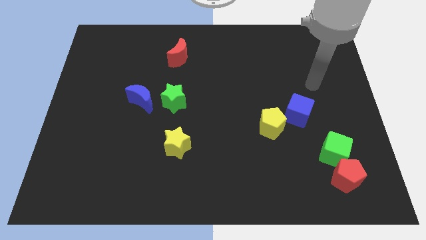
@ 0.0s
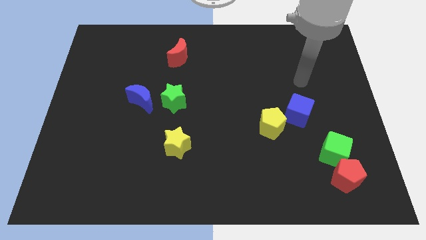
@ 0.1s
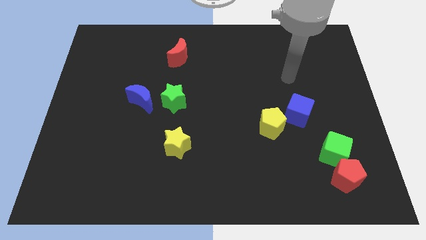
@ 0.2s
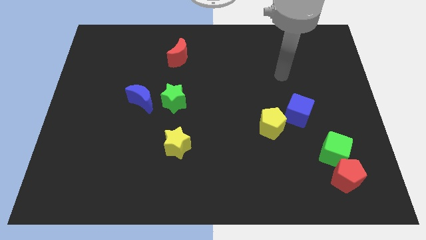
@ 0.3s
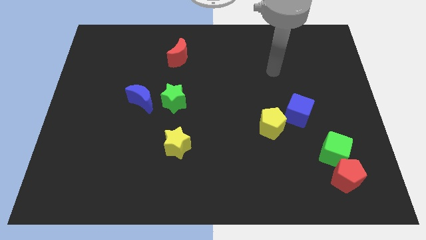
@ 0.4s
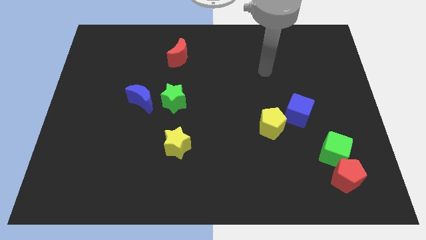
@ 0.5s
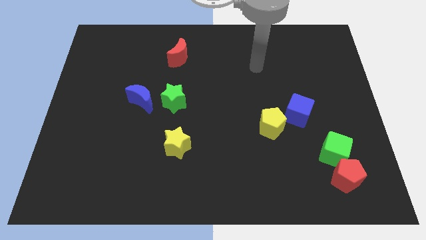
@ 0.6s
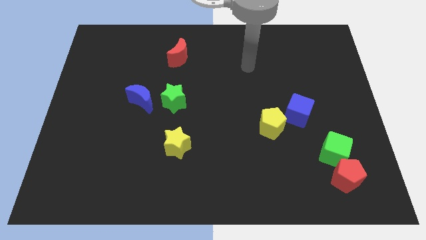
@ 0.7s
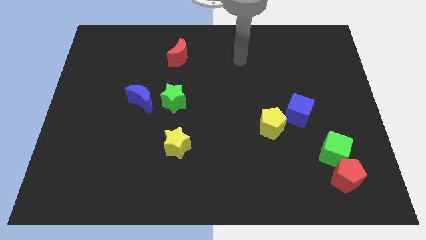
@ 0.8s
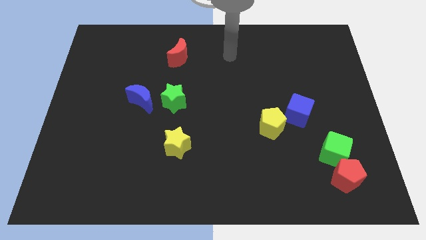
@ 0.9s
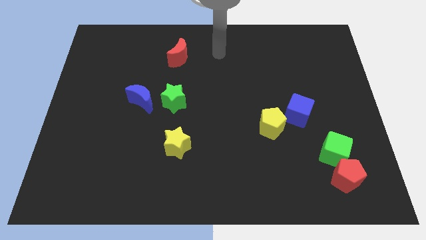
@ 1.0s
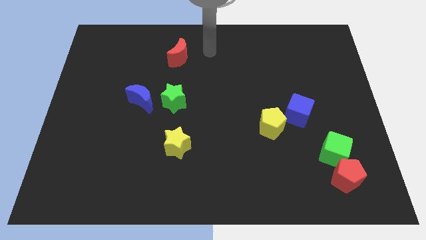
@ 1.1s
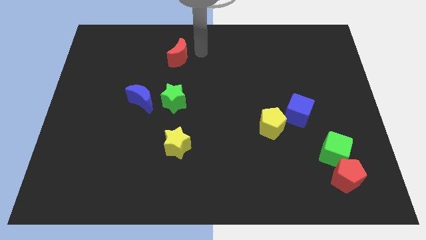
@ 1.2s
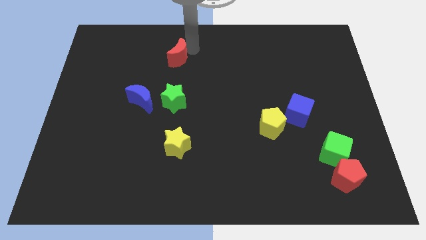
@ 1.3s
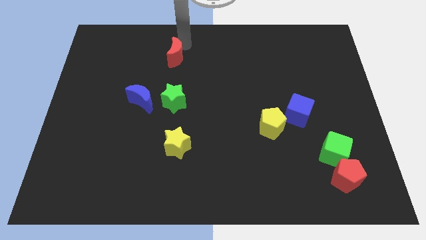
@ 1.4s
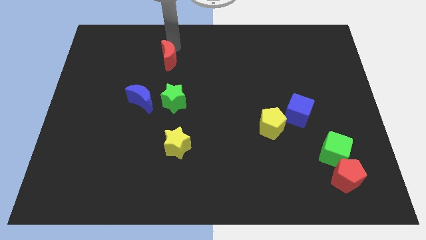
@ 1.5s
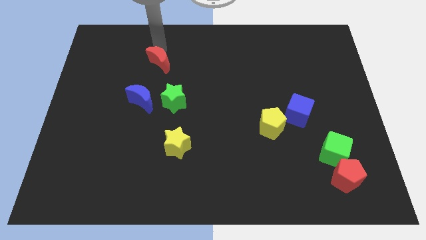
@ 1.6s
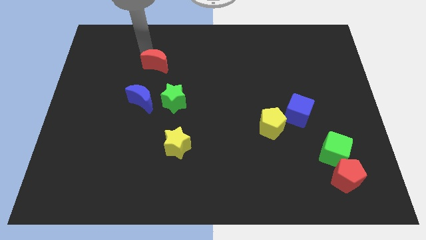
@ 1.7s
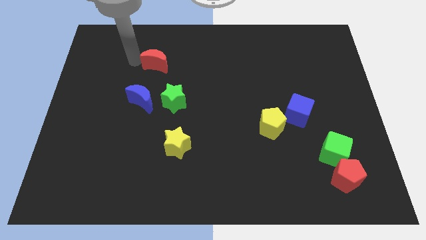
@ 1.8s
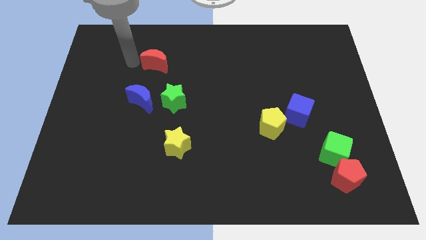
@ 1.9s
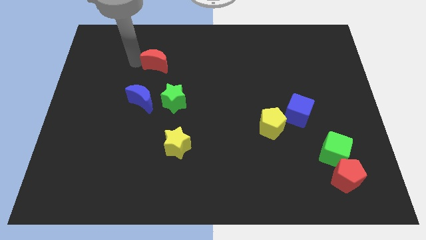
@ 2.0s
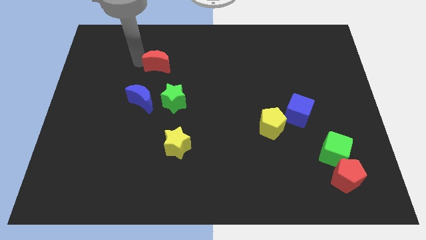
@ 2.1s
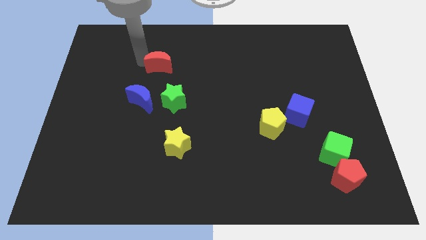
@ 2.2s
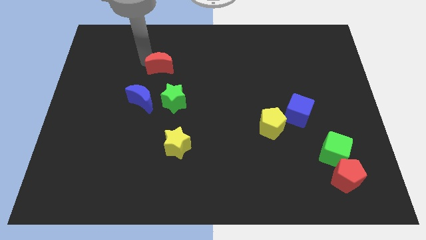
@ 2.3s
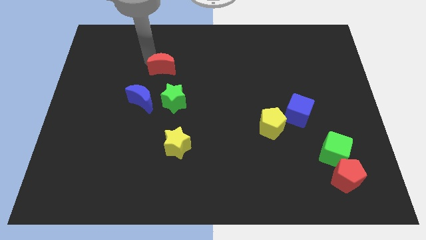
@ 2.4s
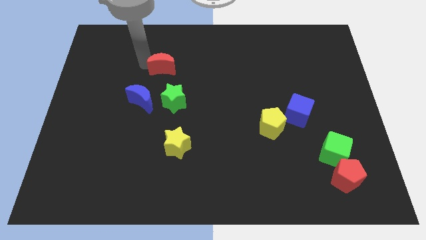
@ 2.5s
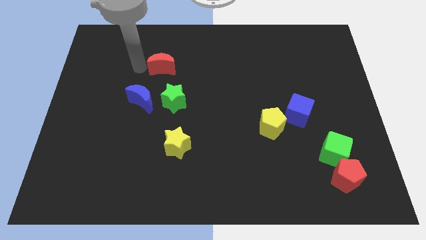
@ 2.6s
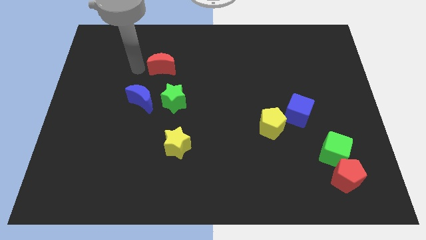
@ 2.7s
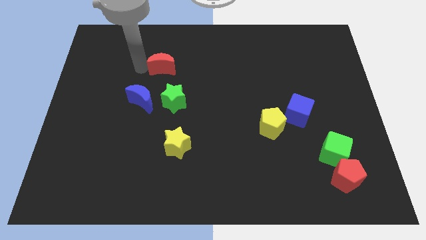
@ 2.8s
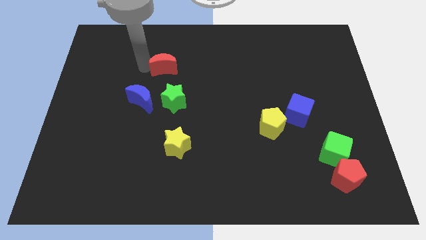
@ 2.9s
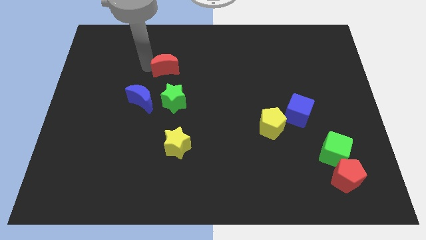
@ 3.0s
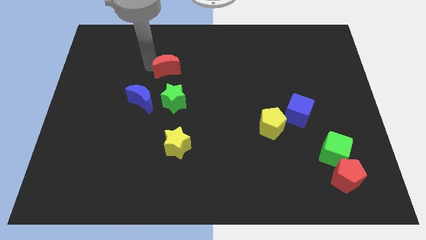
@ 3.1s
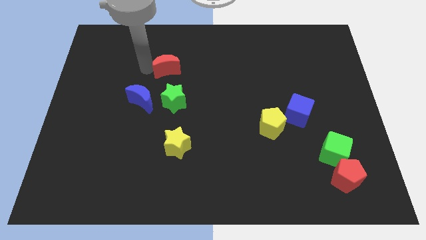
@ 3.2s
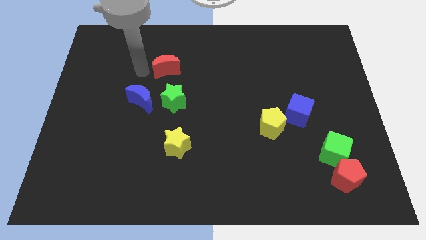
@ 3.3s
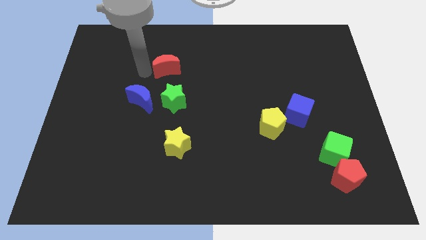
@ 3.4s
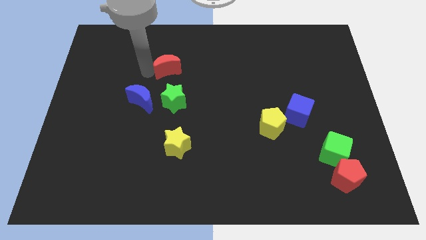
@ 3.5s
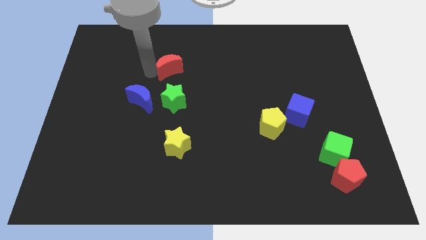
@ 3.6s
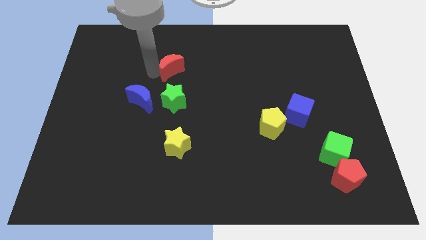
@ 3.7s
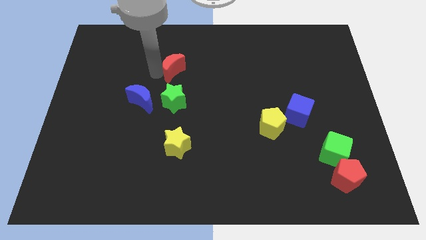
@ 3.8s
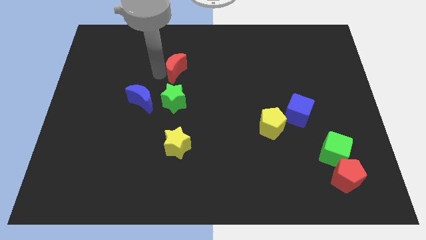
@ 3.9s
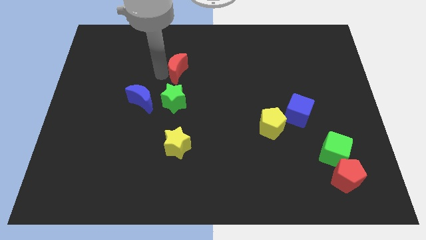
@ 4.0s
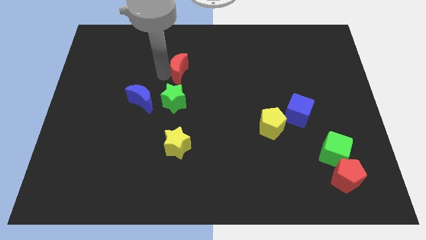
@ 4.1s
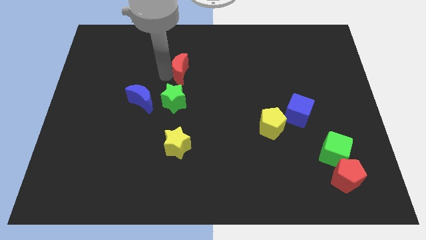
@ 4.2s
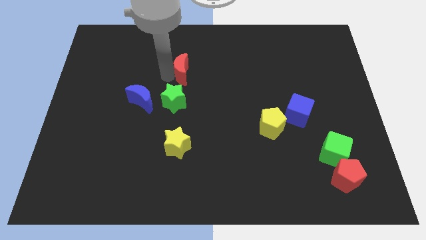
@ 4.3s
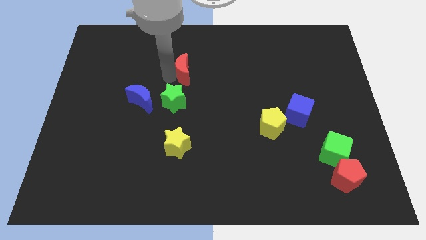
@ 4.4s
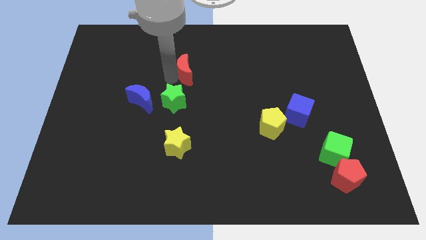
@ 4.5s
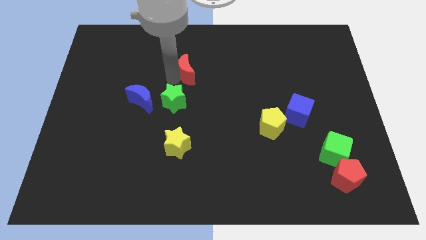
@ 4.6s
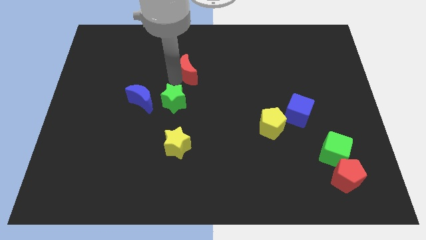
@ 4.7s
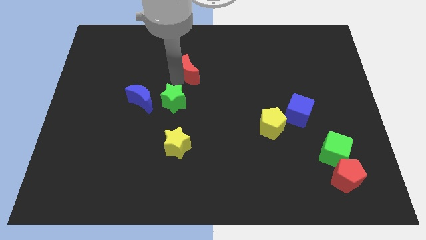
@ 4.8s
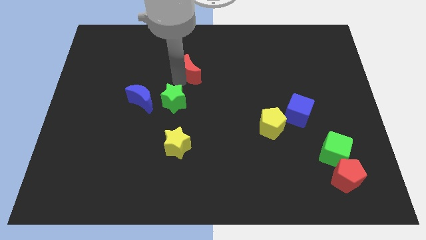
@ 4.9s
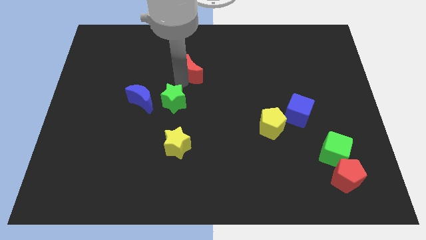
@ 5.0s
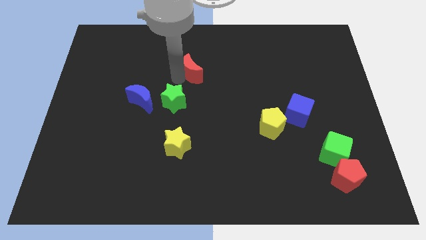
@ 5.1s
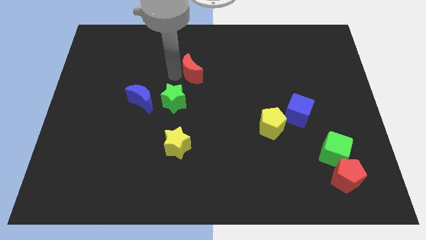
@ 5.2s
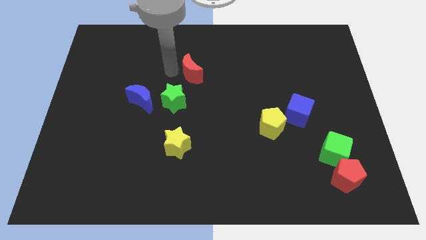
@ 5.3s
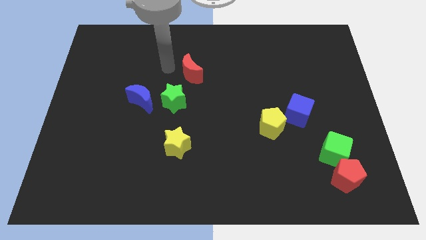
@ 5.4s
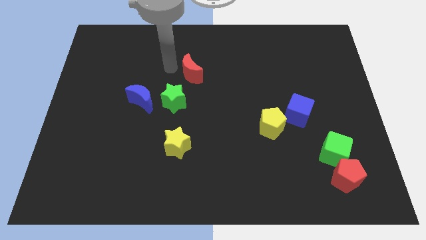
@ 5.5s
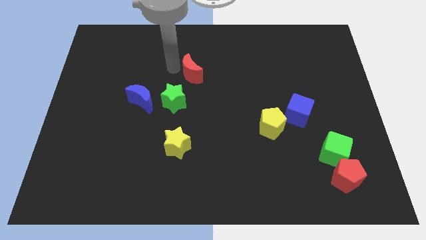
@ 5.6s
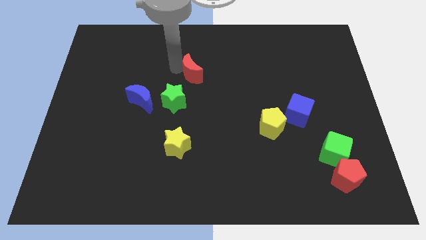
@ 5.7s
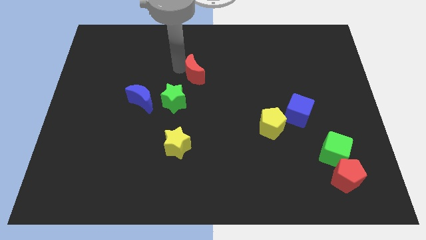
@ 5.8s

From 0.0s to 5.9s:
push the red moon downwards and right diagonally somewhat

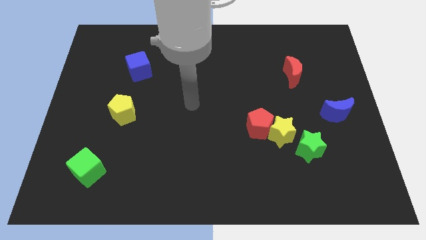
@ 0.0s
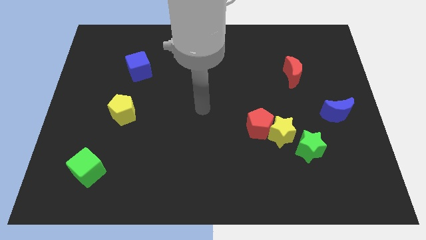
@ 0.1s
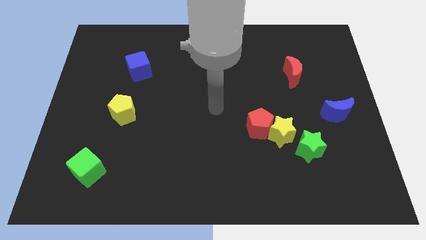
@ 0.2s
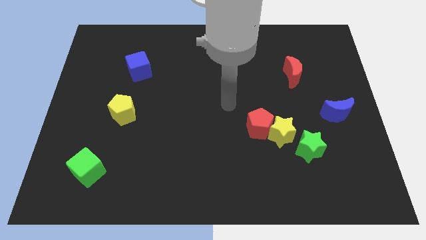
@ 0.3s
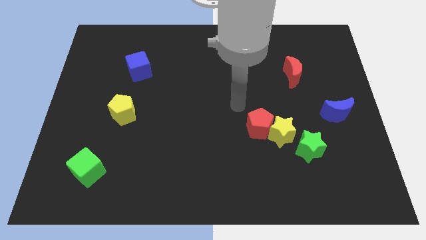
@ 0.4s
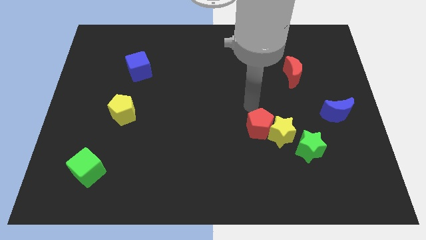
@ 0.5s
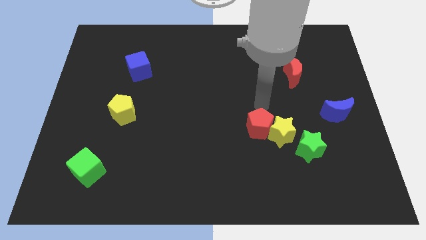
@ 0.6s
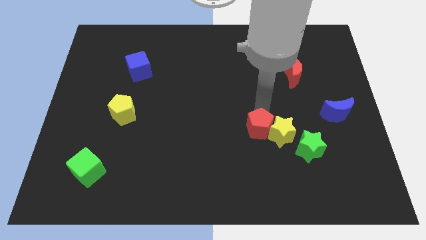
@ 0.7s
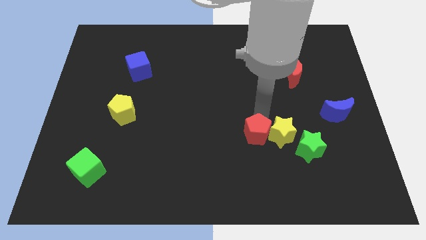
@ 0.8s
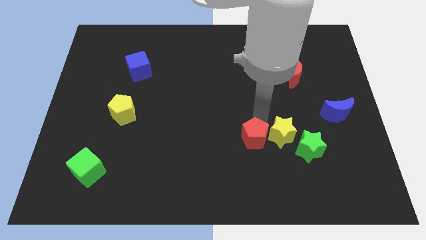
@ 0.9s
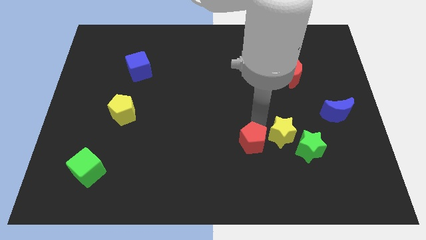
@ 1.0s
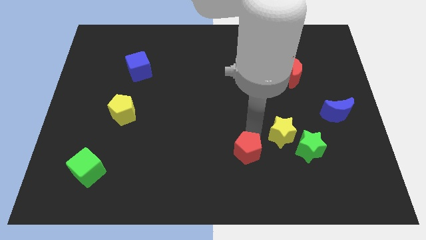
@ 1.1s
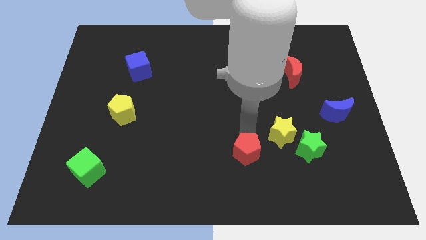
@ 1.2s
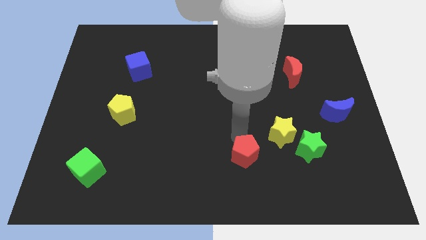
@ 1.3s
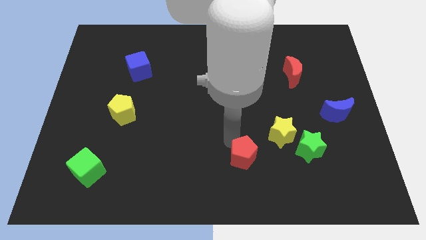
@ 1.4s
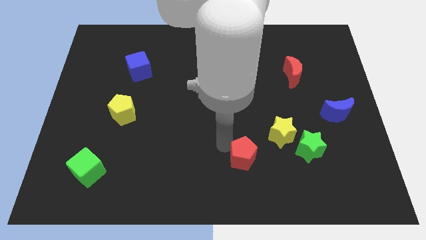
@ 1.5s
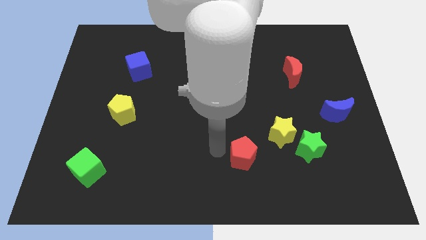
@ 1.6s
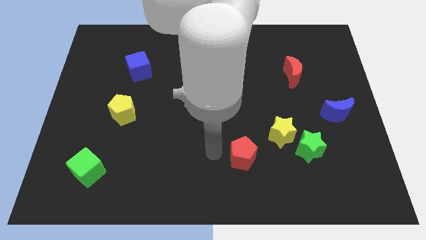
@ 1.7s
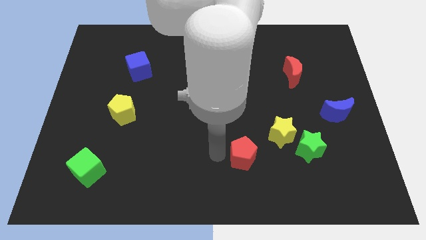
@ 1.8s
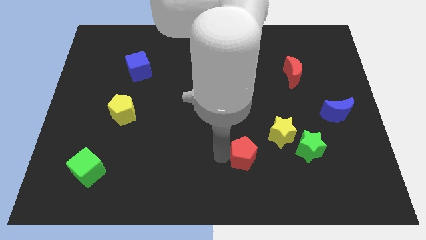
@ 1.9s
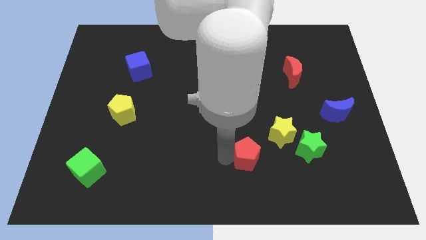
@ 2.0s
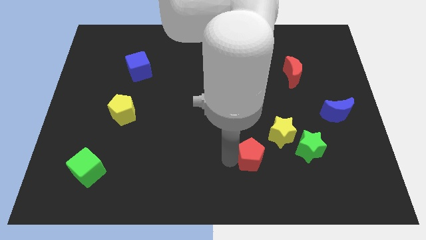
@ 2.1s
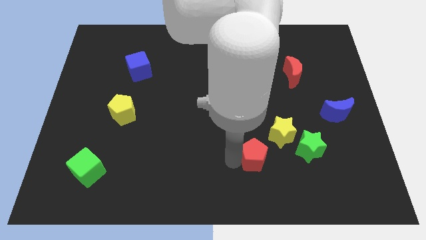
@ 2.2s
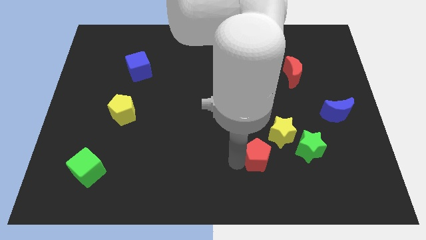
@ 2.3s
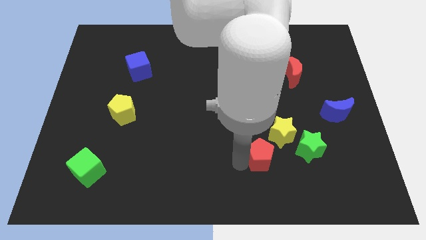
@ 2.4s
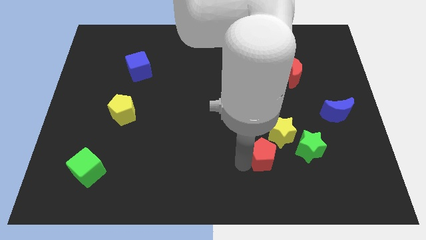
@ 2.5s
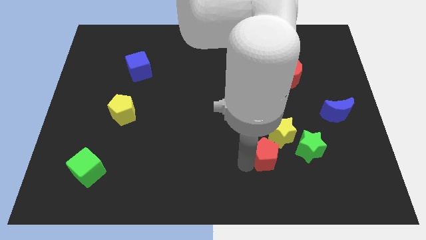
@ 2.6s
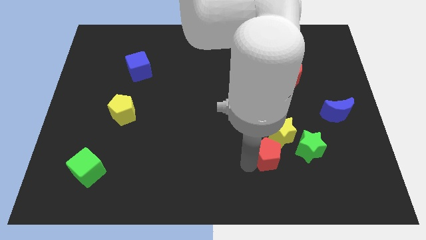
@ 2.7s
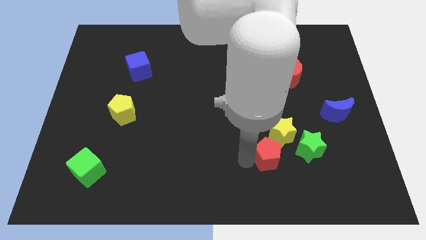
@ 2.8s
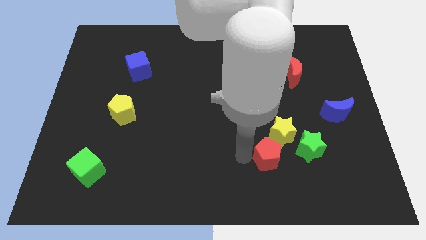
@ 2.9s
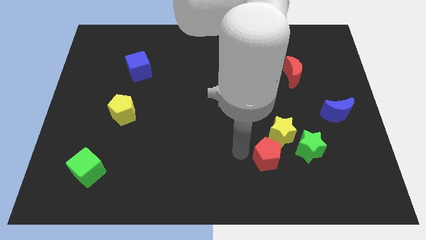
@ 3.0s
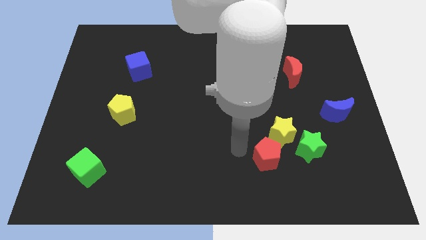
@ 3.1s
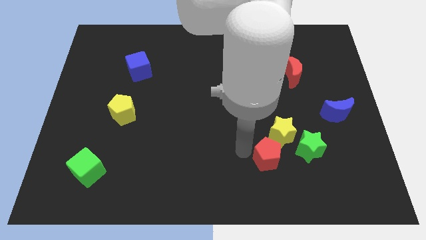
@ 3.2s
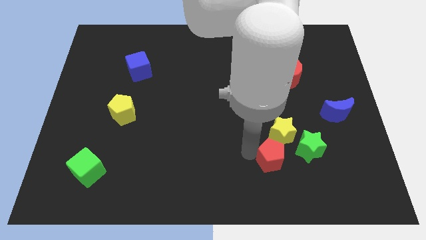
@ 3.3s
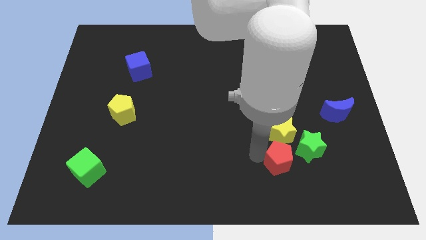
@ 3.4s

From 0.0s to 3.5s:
move the red pentagon diagonally down and right slightly
